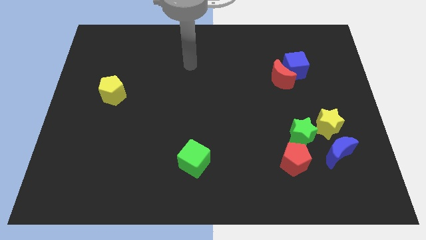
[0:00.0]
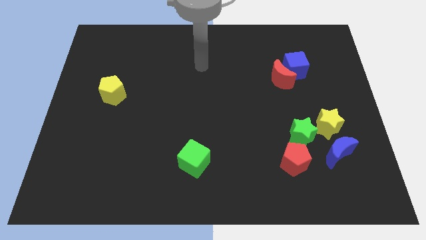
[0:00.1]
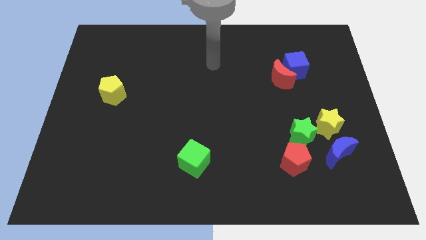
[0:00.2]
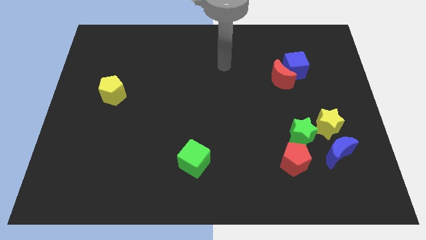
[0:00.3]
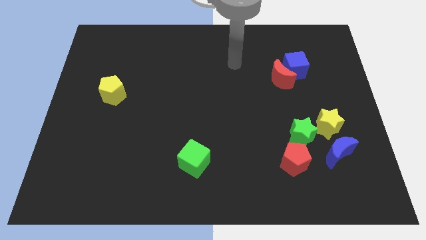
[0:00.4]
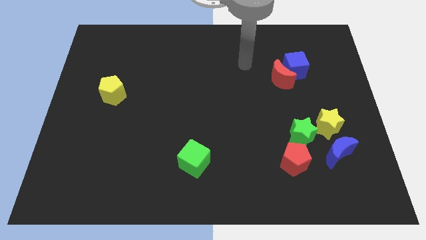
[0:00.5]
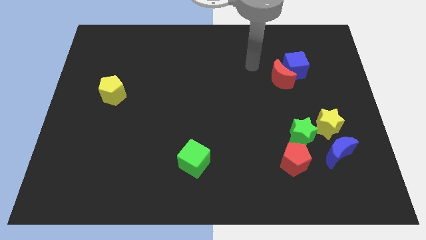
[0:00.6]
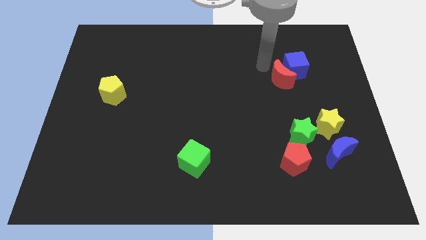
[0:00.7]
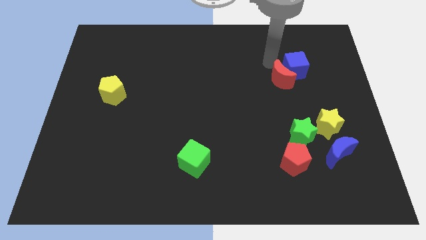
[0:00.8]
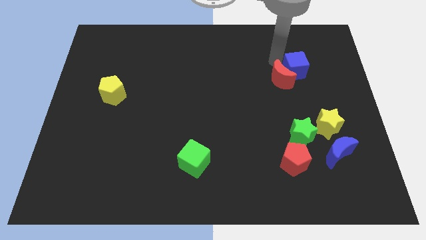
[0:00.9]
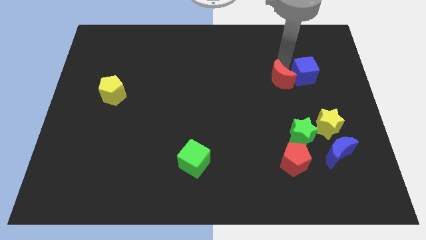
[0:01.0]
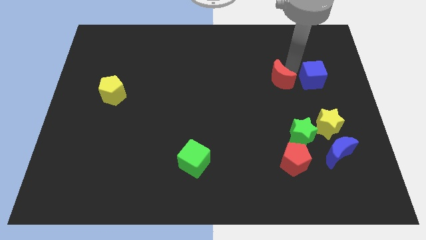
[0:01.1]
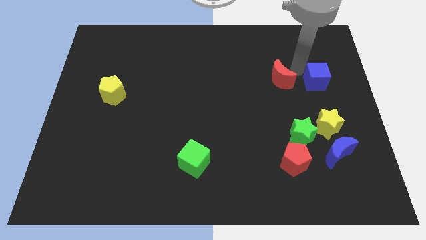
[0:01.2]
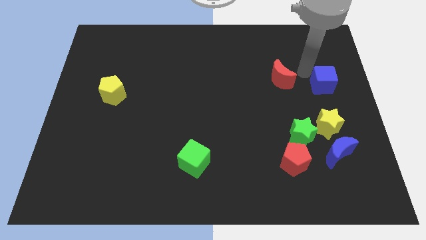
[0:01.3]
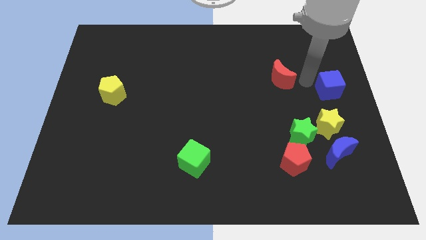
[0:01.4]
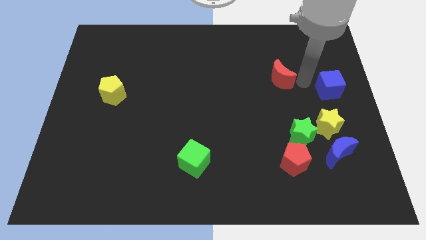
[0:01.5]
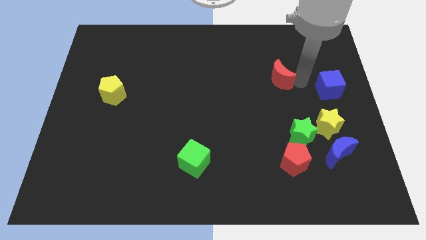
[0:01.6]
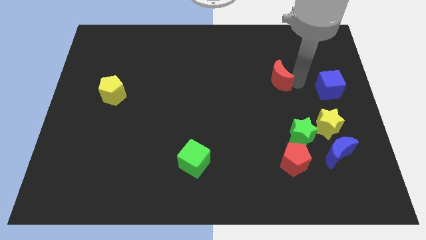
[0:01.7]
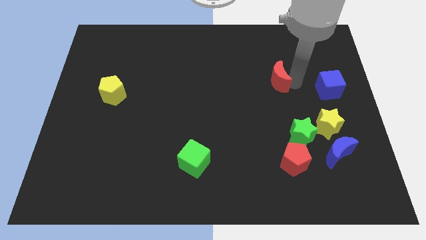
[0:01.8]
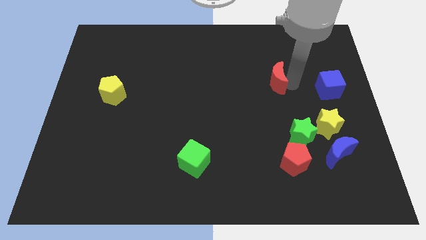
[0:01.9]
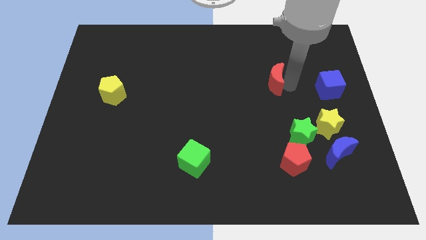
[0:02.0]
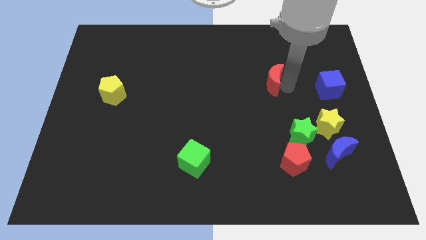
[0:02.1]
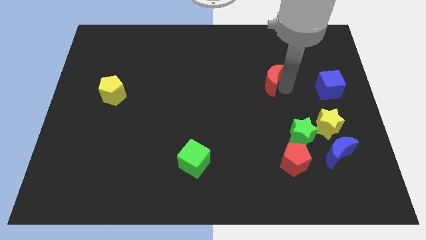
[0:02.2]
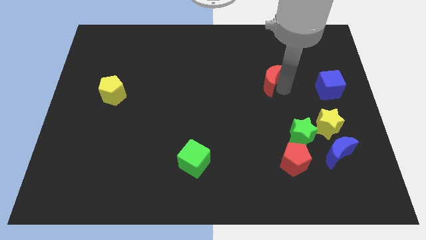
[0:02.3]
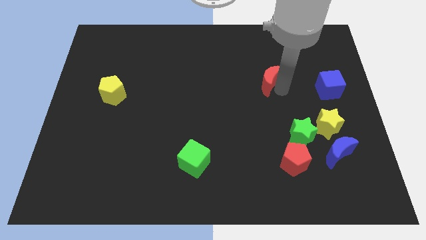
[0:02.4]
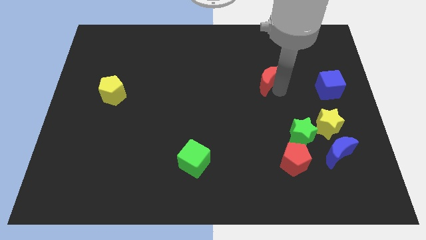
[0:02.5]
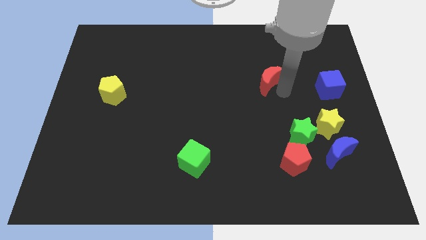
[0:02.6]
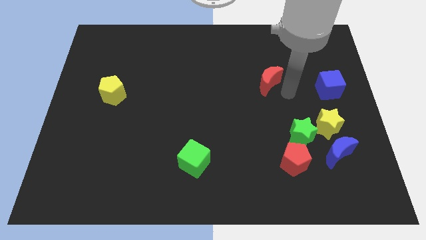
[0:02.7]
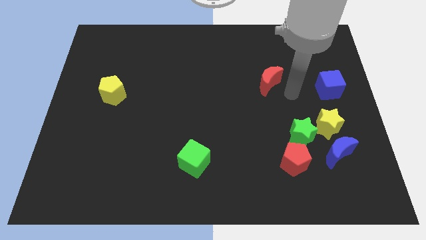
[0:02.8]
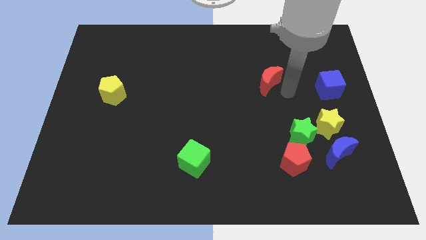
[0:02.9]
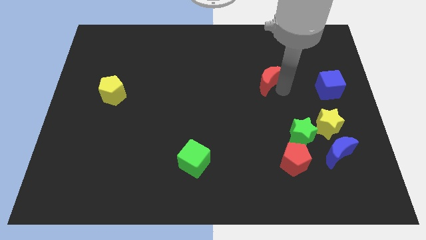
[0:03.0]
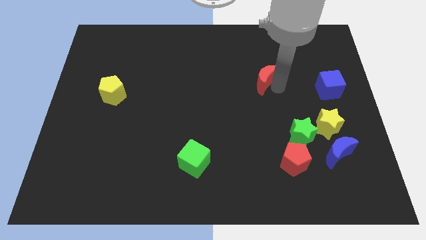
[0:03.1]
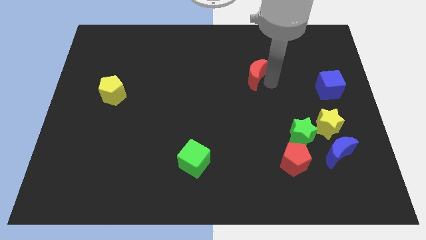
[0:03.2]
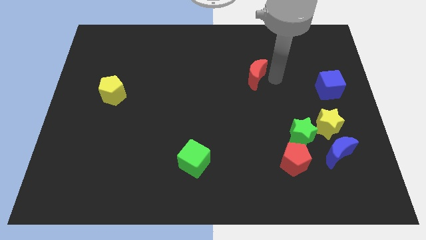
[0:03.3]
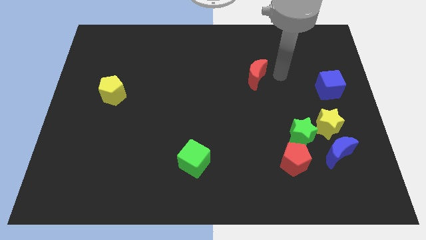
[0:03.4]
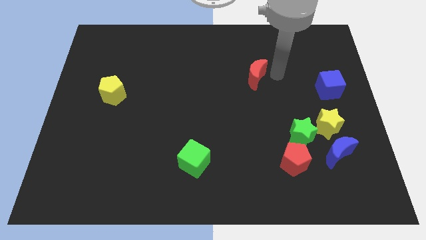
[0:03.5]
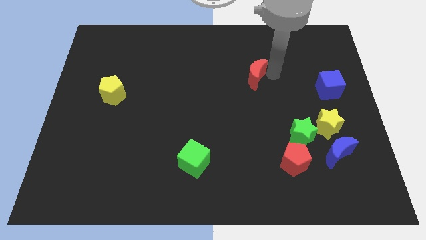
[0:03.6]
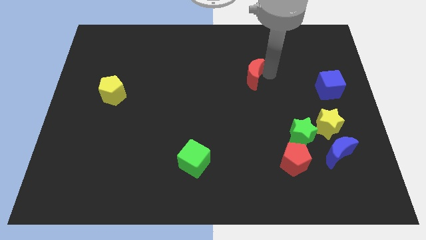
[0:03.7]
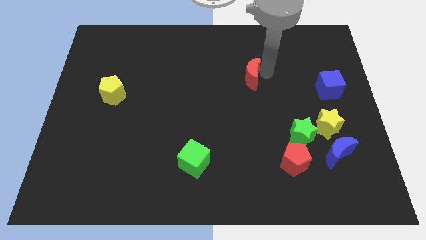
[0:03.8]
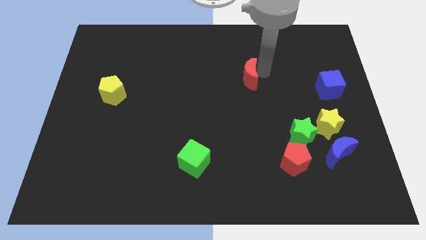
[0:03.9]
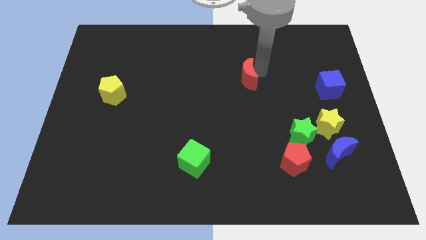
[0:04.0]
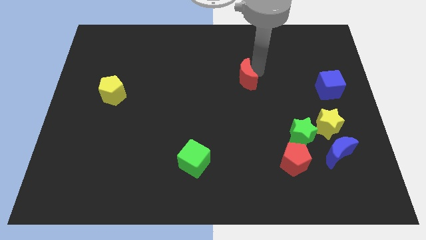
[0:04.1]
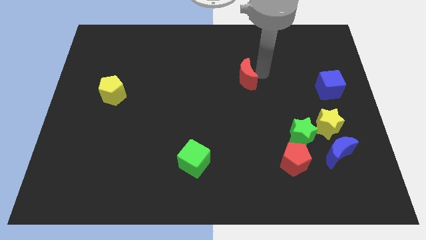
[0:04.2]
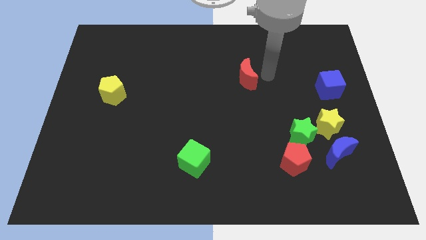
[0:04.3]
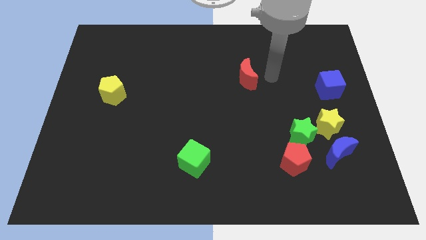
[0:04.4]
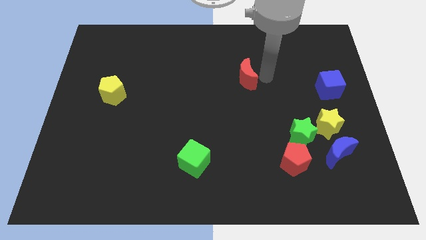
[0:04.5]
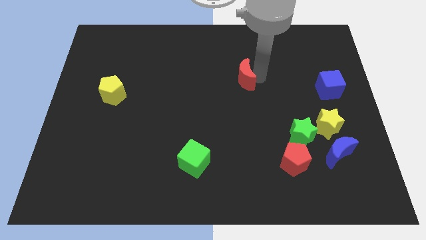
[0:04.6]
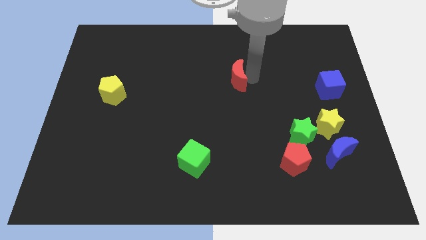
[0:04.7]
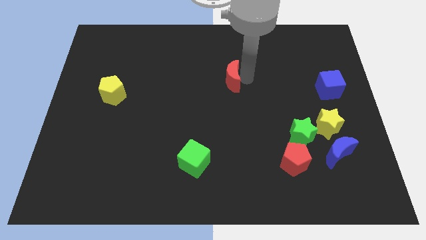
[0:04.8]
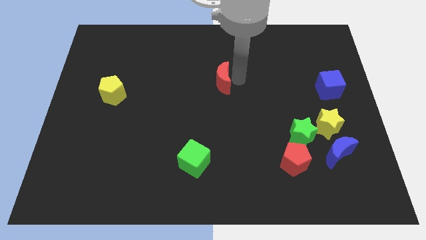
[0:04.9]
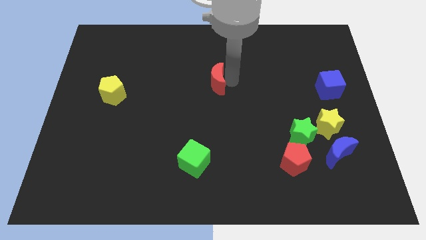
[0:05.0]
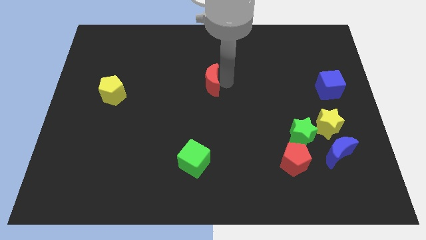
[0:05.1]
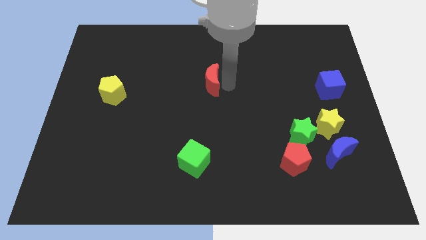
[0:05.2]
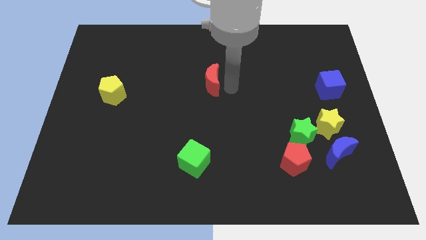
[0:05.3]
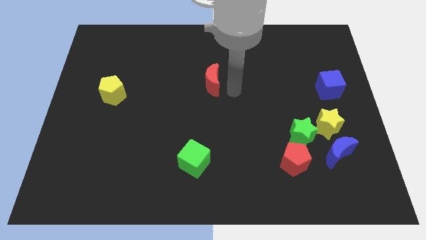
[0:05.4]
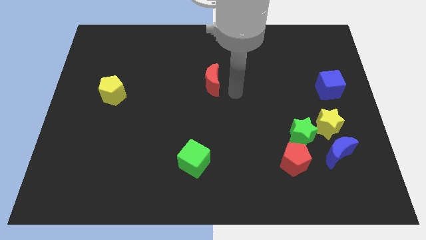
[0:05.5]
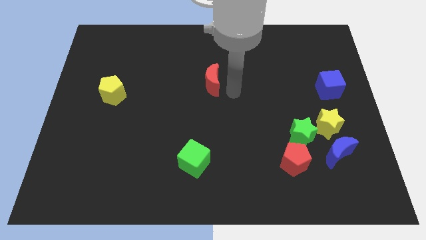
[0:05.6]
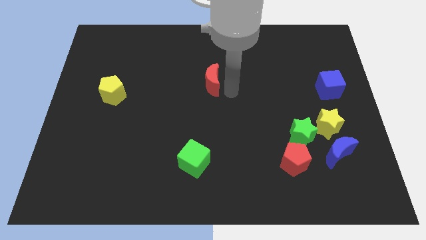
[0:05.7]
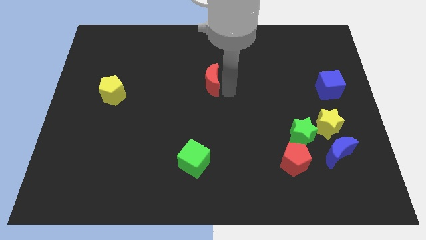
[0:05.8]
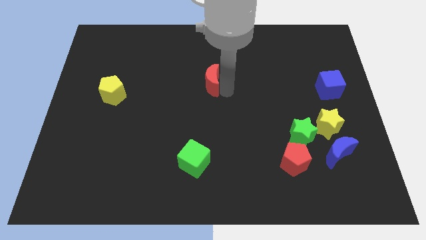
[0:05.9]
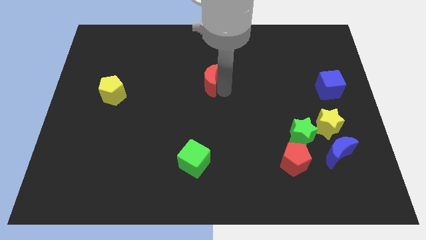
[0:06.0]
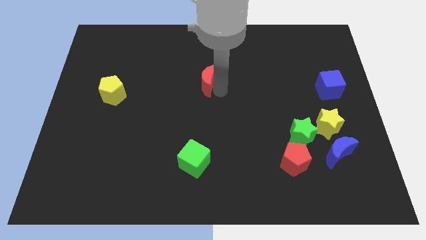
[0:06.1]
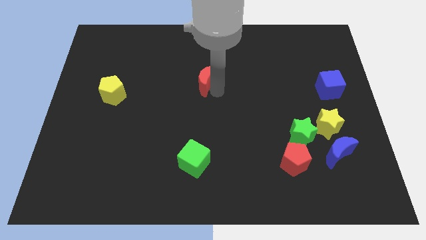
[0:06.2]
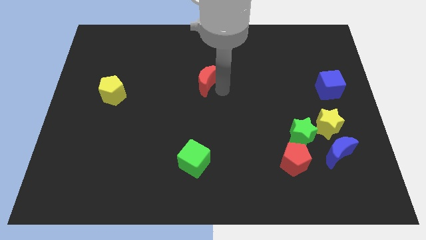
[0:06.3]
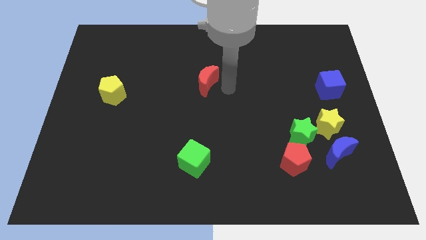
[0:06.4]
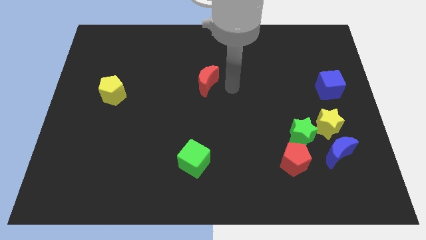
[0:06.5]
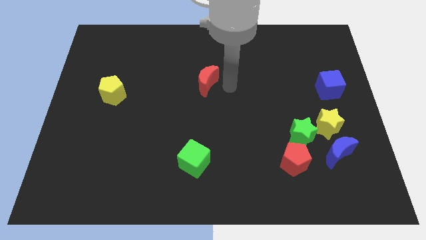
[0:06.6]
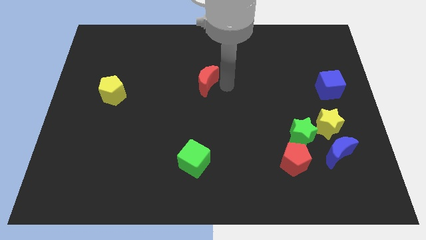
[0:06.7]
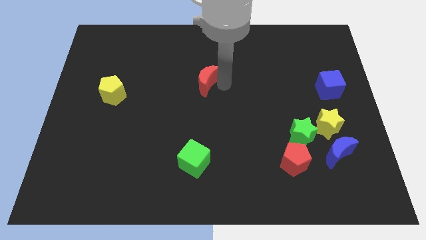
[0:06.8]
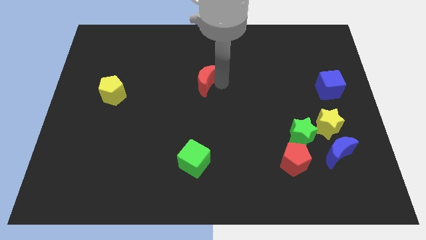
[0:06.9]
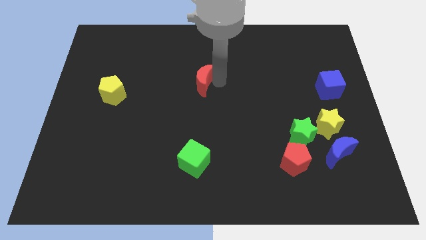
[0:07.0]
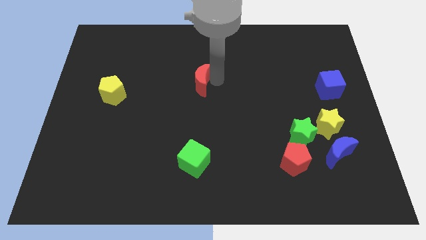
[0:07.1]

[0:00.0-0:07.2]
slide the red moon left

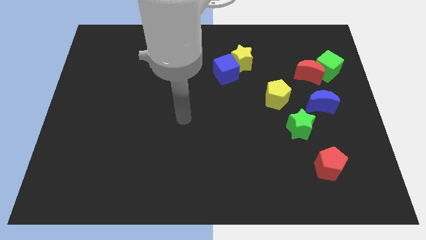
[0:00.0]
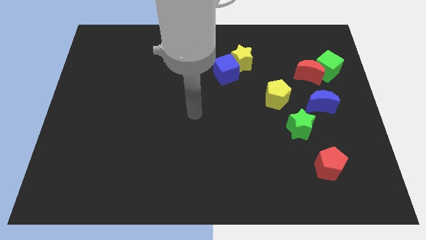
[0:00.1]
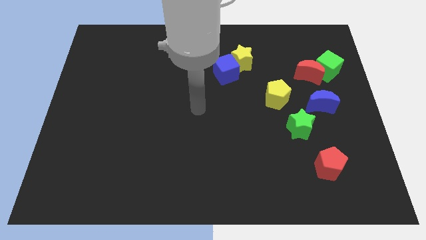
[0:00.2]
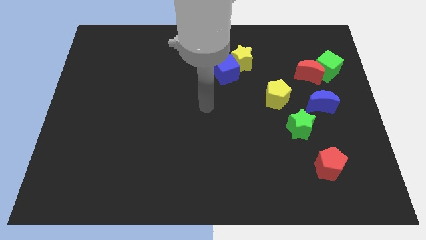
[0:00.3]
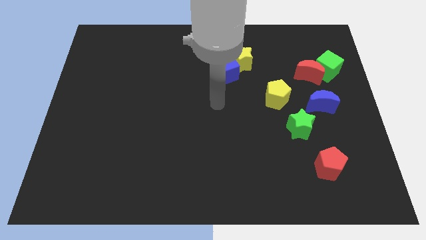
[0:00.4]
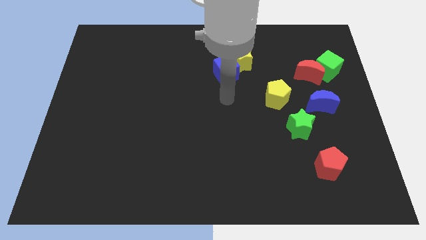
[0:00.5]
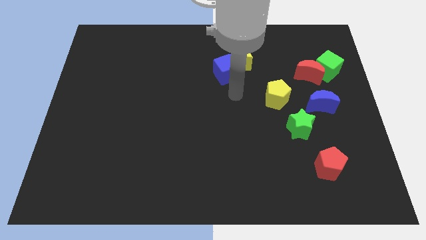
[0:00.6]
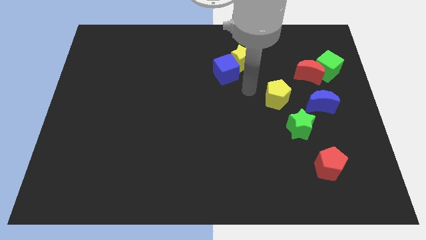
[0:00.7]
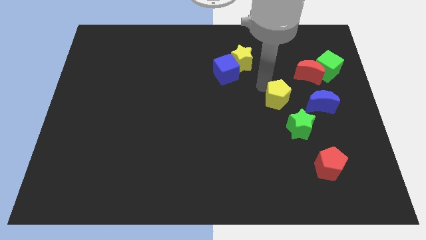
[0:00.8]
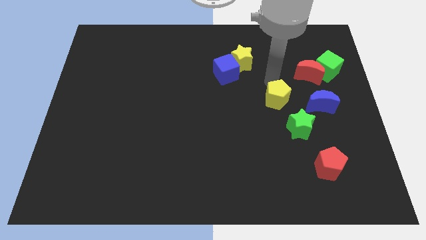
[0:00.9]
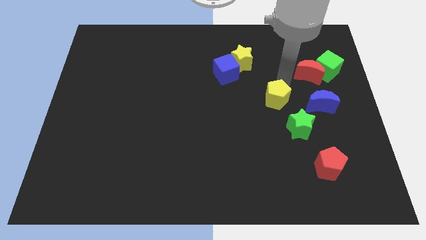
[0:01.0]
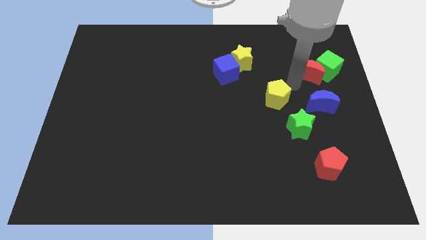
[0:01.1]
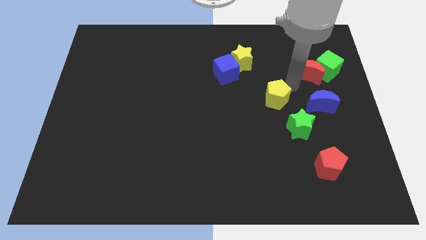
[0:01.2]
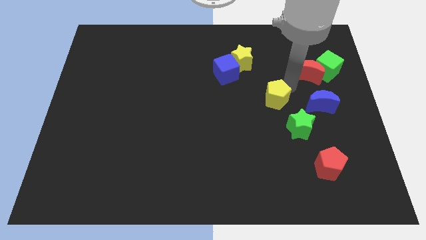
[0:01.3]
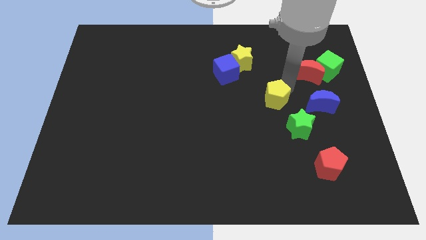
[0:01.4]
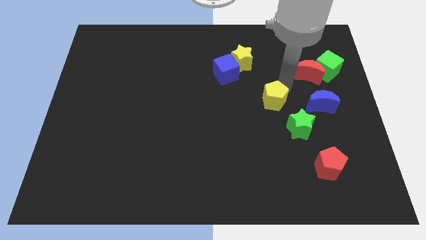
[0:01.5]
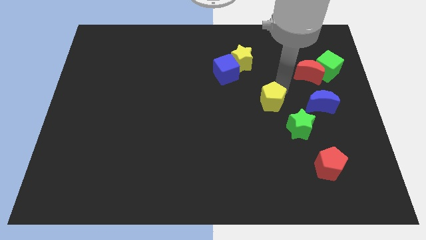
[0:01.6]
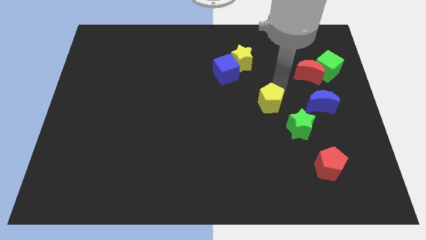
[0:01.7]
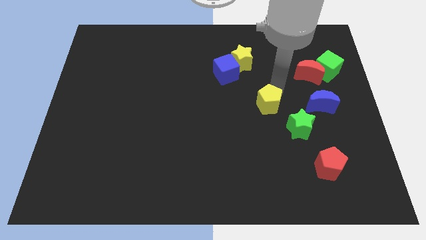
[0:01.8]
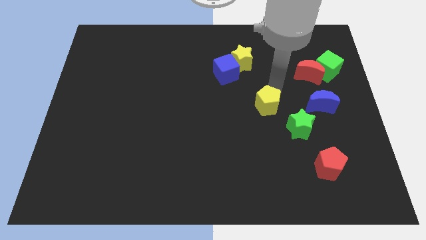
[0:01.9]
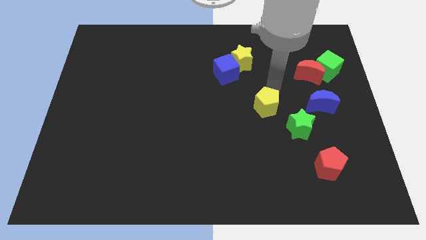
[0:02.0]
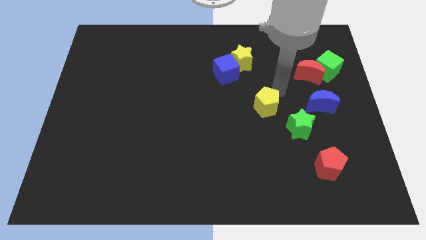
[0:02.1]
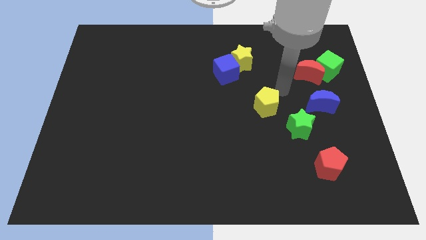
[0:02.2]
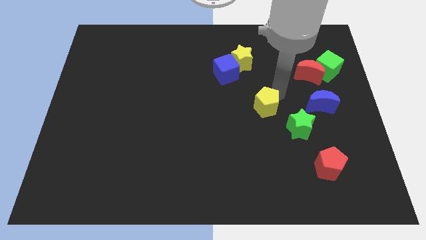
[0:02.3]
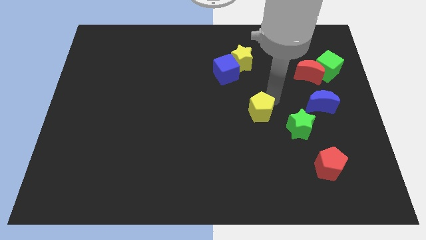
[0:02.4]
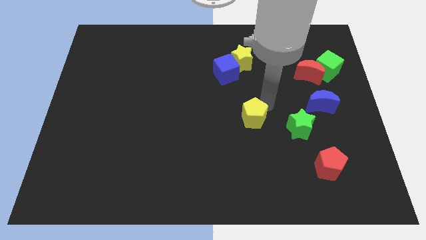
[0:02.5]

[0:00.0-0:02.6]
move the yellow pentagon down and left a little bit
